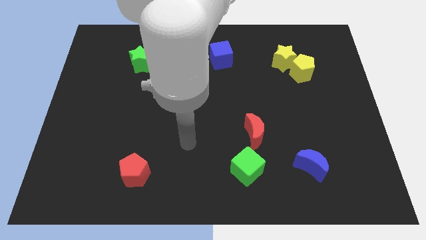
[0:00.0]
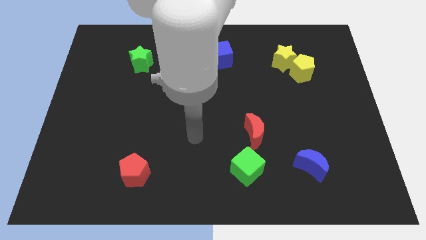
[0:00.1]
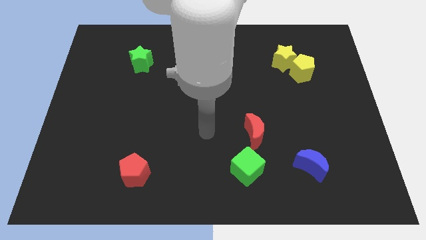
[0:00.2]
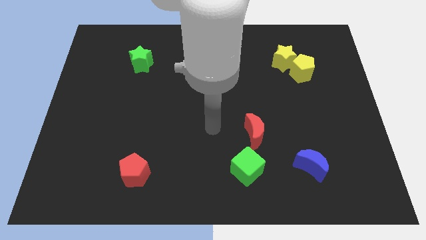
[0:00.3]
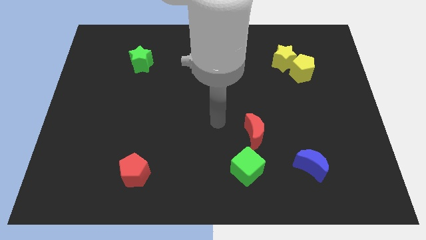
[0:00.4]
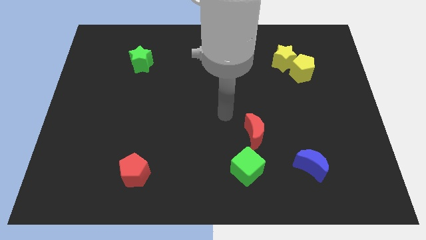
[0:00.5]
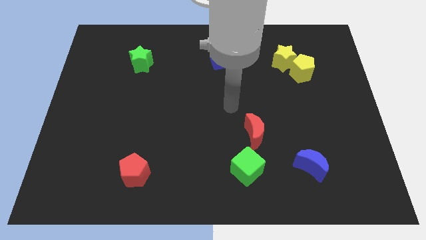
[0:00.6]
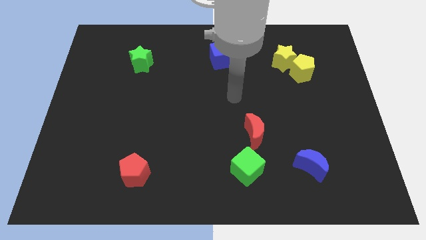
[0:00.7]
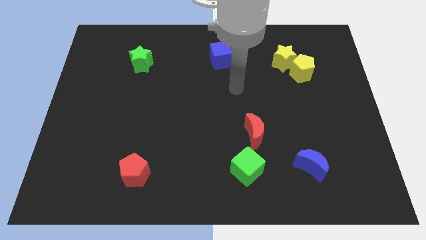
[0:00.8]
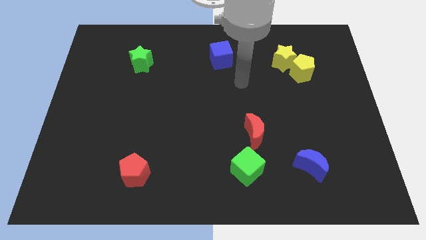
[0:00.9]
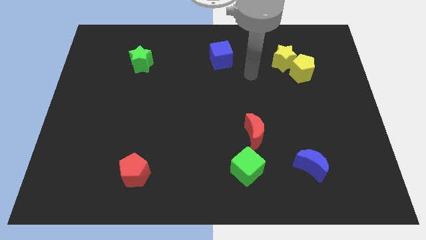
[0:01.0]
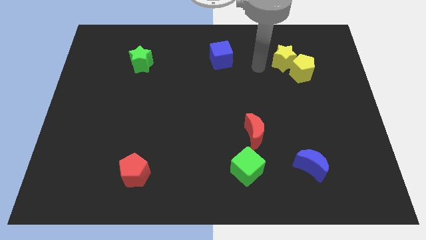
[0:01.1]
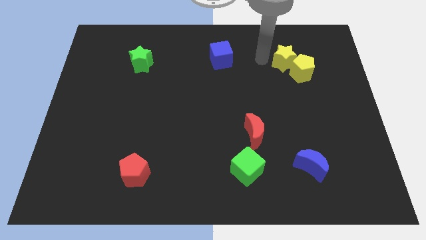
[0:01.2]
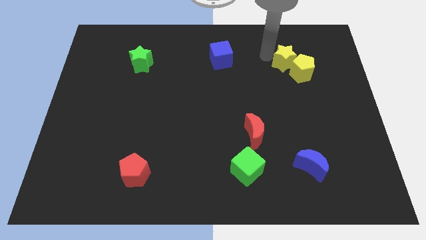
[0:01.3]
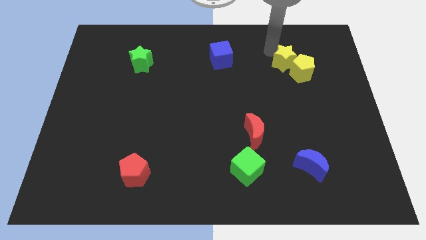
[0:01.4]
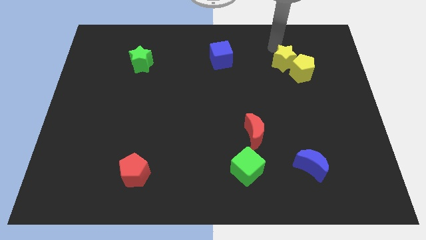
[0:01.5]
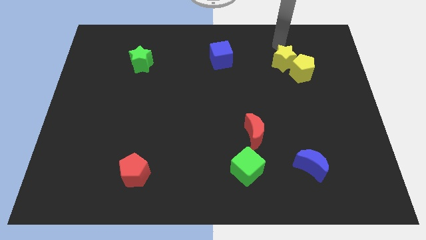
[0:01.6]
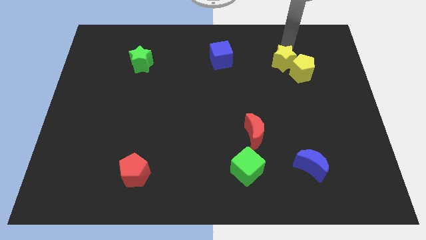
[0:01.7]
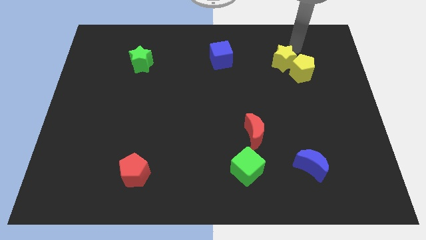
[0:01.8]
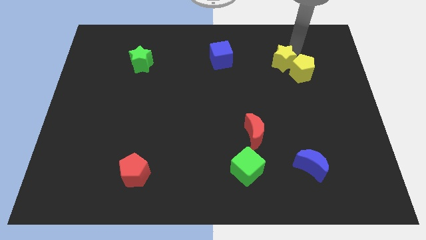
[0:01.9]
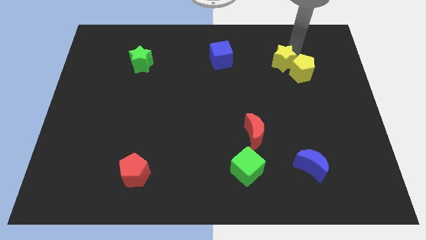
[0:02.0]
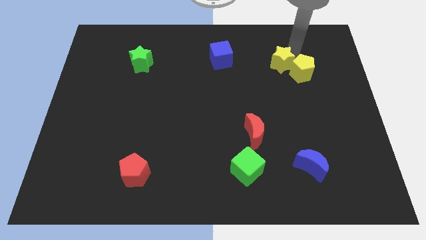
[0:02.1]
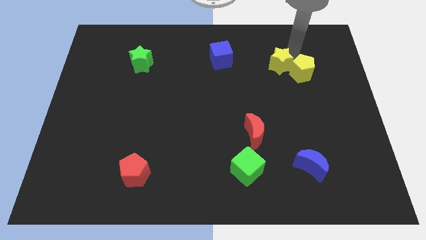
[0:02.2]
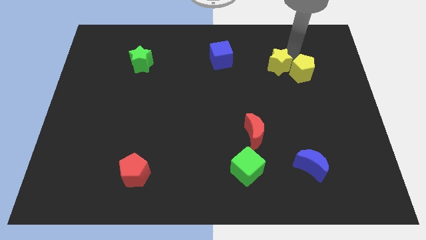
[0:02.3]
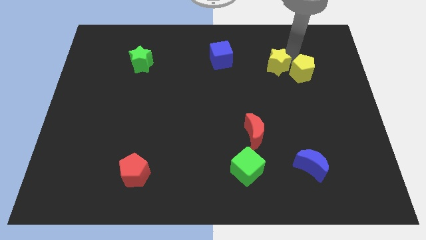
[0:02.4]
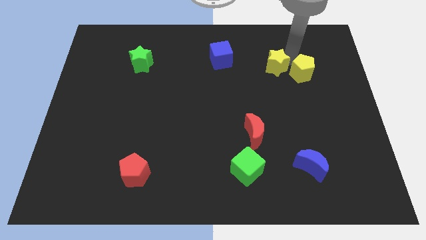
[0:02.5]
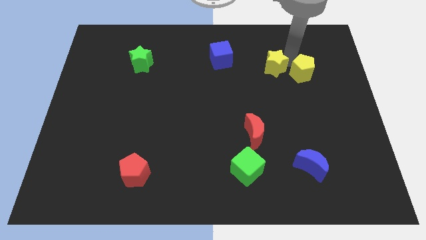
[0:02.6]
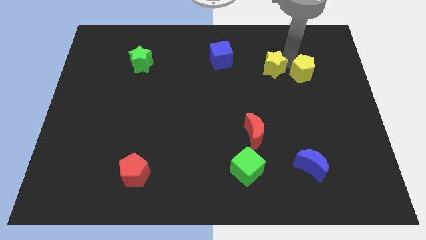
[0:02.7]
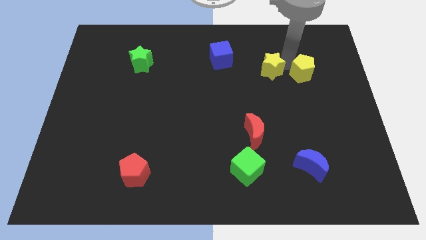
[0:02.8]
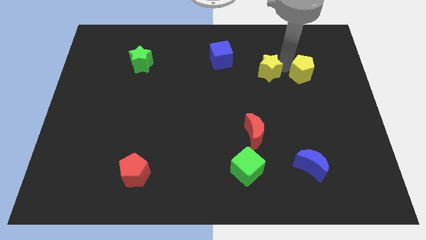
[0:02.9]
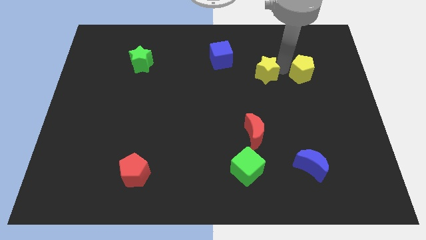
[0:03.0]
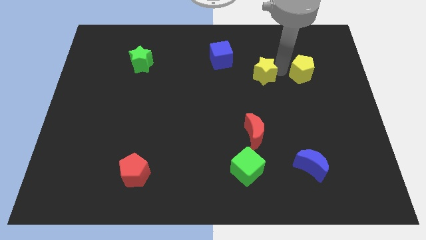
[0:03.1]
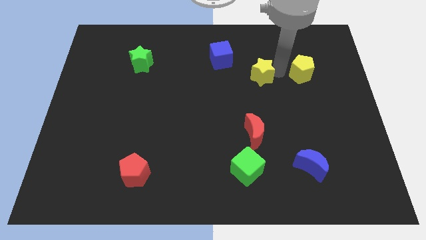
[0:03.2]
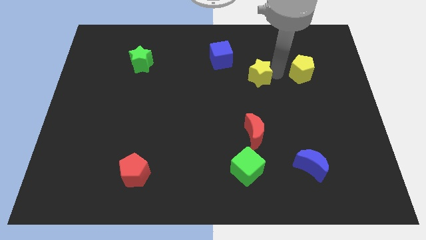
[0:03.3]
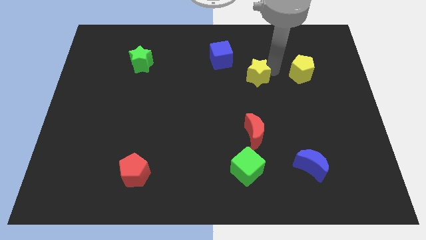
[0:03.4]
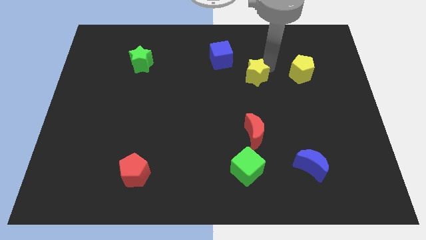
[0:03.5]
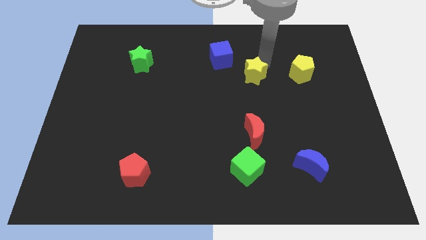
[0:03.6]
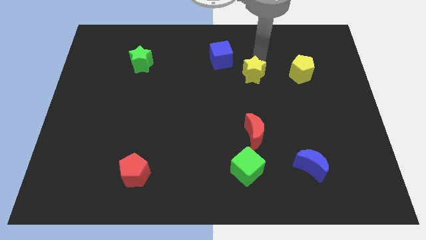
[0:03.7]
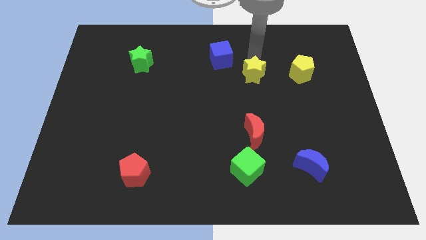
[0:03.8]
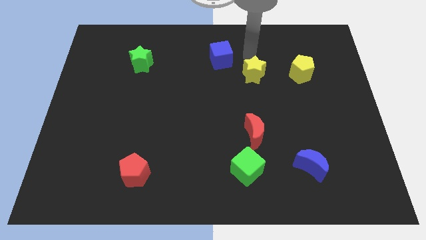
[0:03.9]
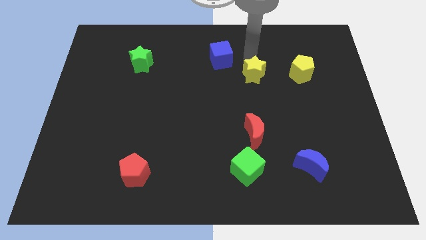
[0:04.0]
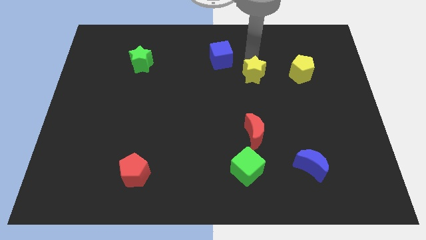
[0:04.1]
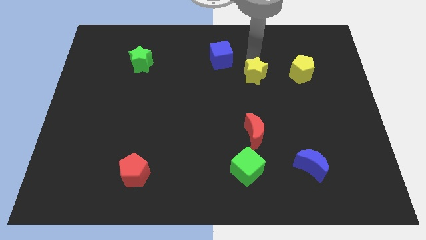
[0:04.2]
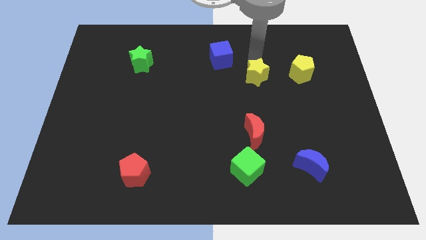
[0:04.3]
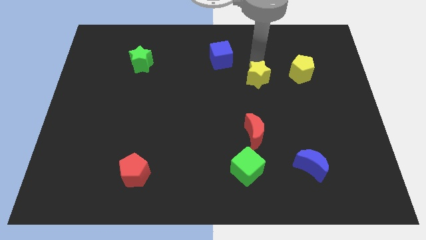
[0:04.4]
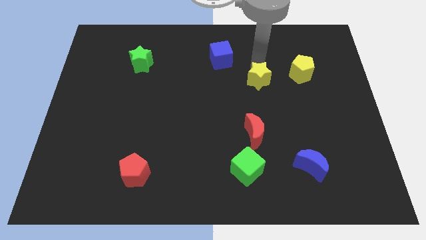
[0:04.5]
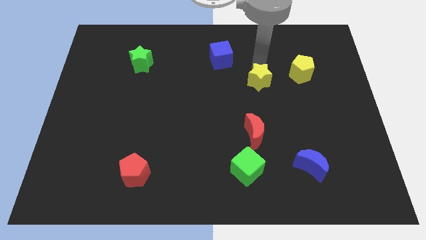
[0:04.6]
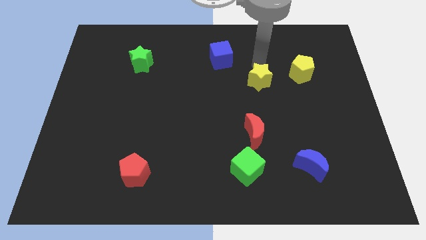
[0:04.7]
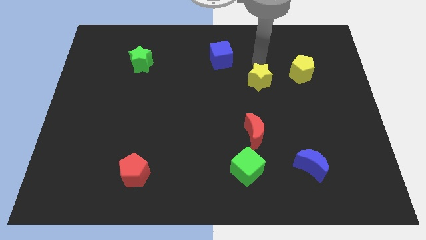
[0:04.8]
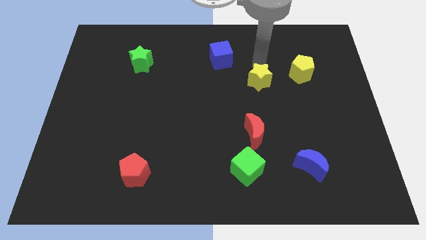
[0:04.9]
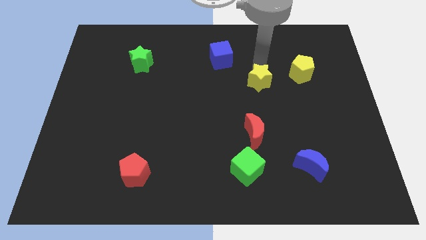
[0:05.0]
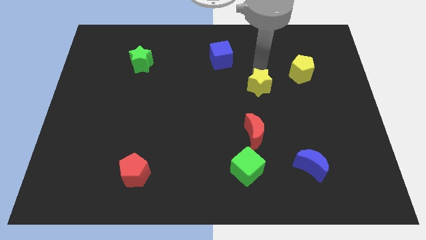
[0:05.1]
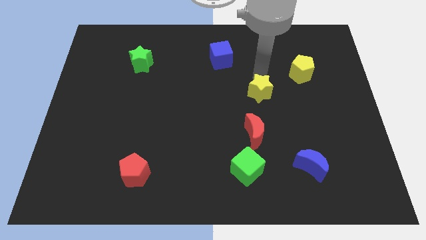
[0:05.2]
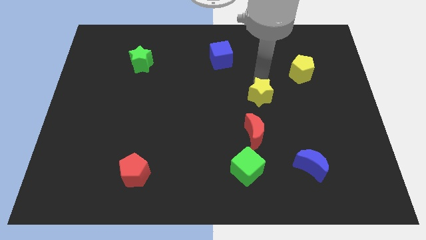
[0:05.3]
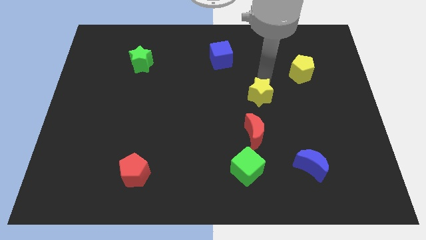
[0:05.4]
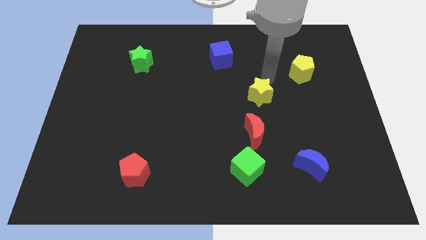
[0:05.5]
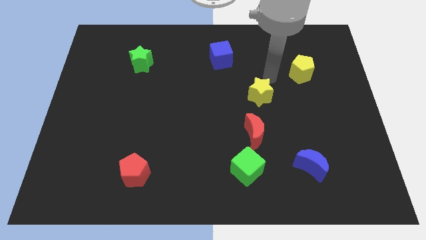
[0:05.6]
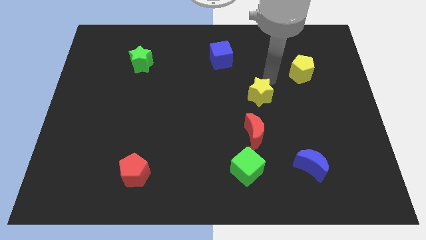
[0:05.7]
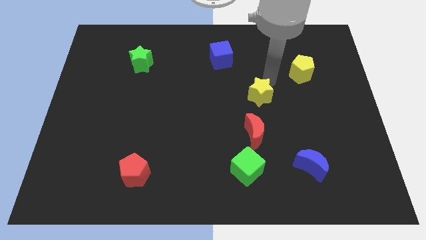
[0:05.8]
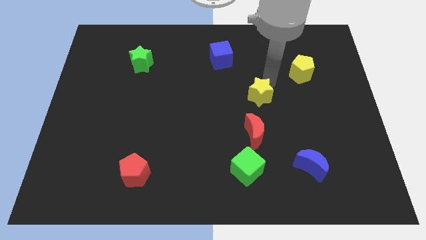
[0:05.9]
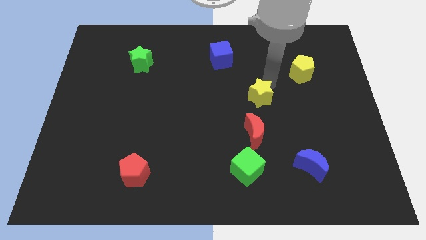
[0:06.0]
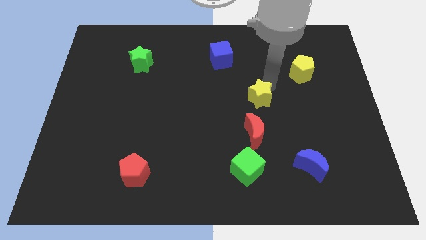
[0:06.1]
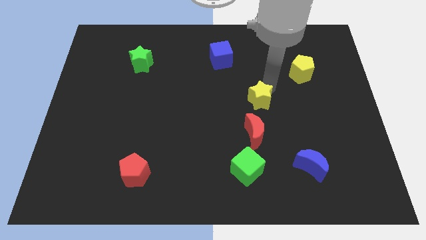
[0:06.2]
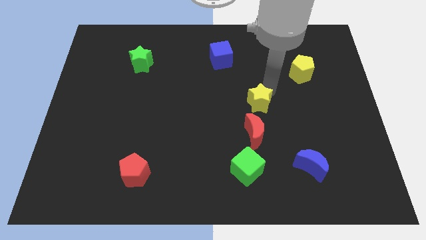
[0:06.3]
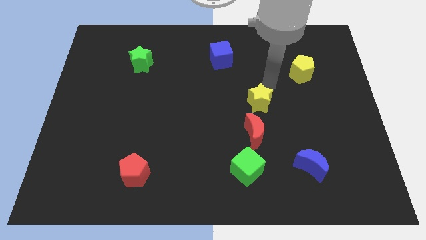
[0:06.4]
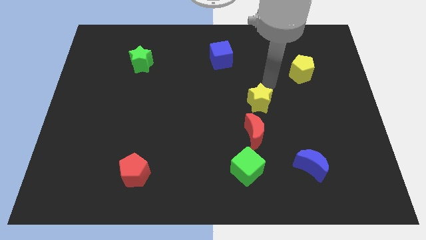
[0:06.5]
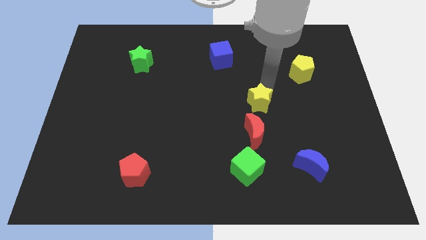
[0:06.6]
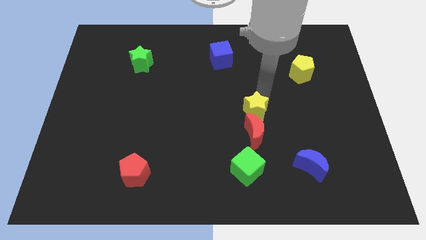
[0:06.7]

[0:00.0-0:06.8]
slide the yellow star to the top side of the green cube

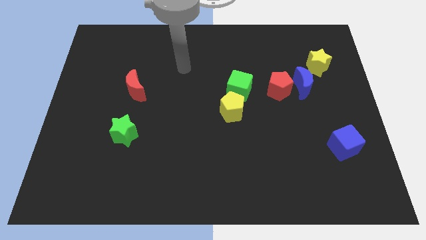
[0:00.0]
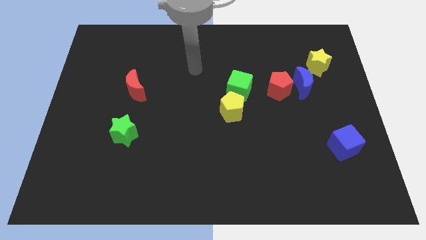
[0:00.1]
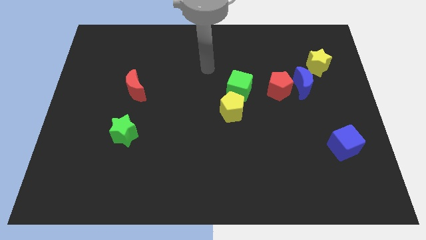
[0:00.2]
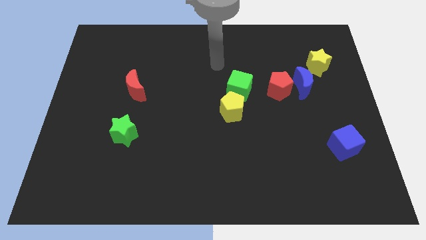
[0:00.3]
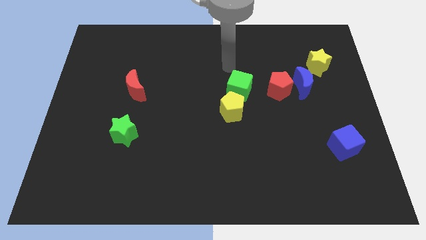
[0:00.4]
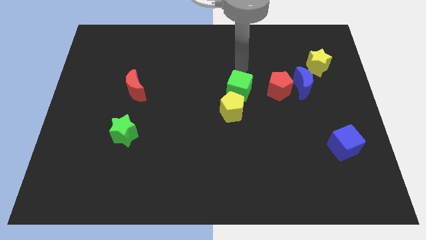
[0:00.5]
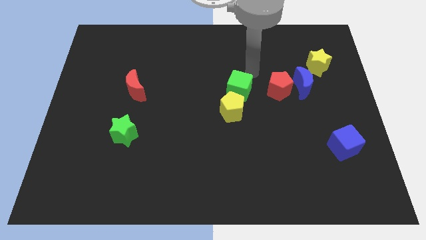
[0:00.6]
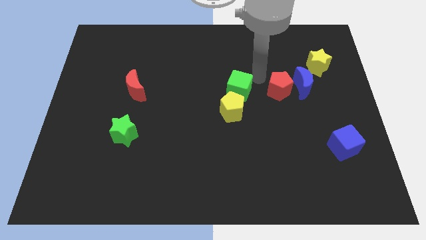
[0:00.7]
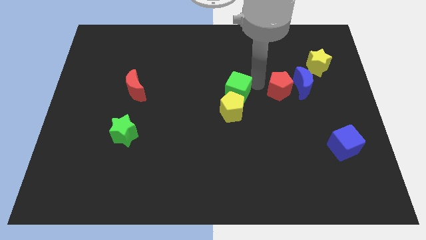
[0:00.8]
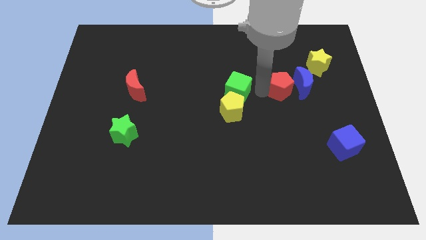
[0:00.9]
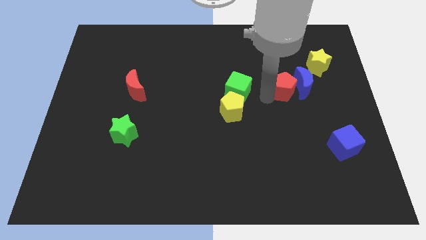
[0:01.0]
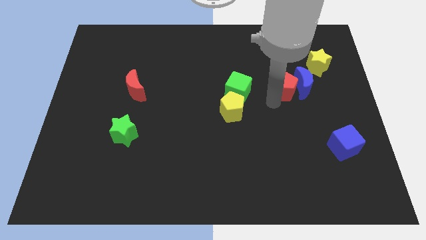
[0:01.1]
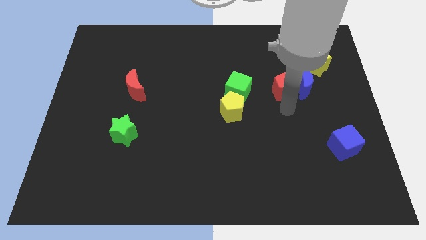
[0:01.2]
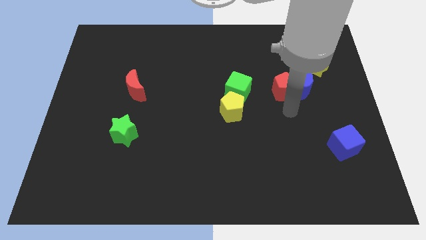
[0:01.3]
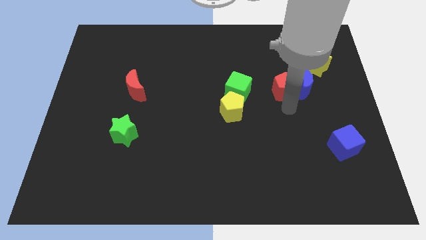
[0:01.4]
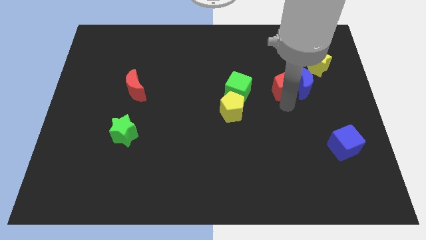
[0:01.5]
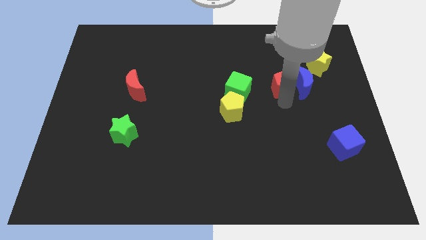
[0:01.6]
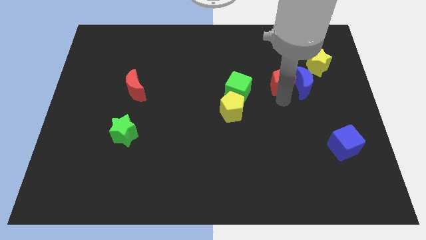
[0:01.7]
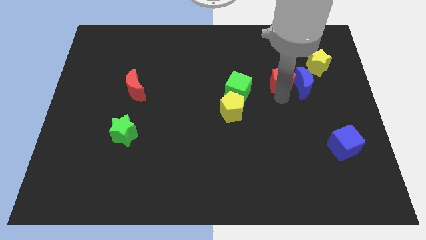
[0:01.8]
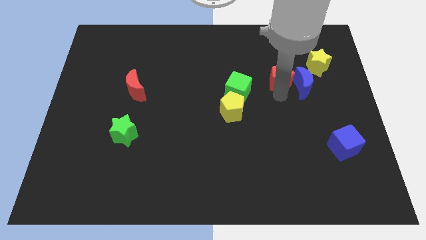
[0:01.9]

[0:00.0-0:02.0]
move the red pentagon just left of the yellow star
